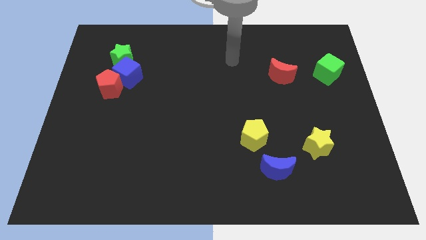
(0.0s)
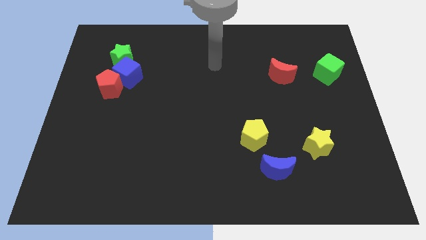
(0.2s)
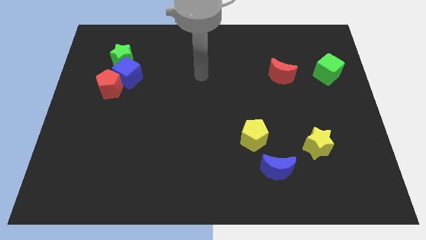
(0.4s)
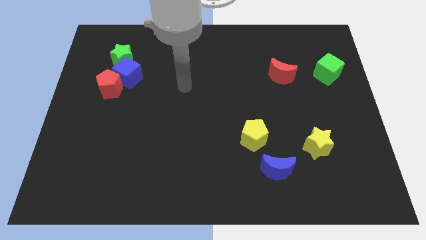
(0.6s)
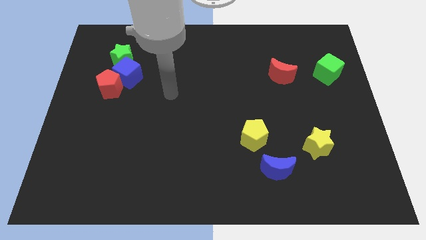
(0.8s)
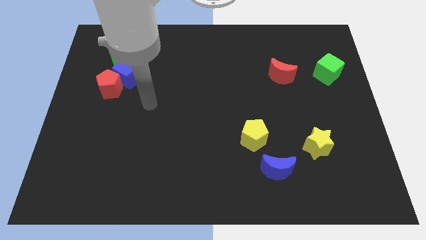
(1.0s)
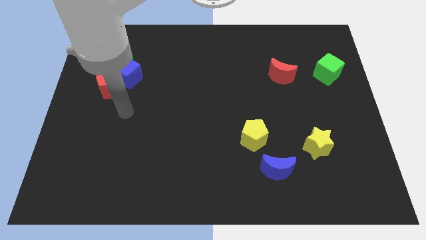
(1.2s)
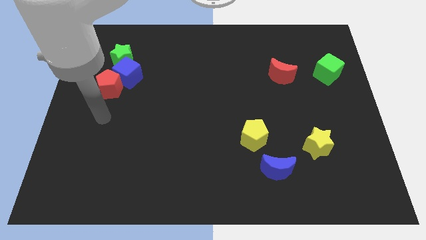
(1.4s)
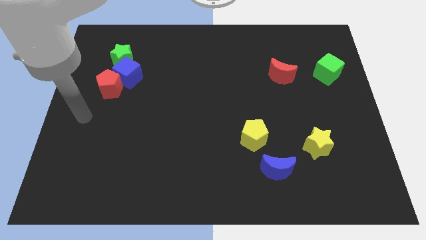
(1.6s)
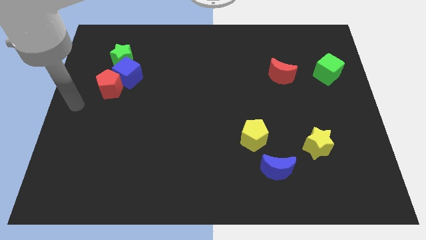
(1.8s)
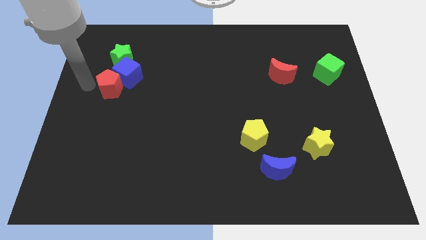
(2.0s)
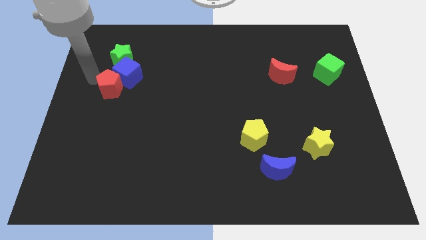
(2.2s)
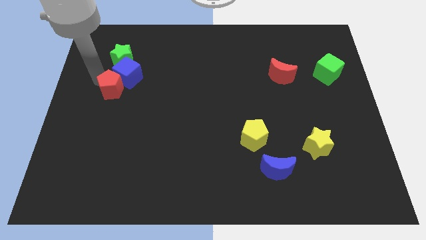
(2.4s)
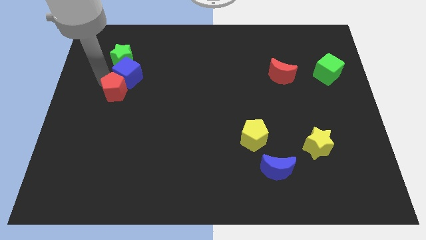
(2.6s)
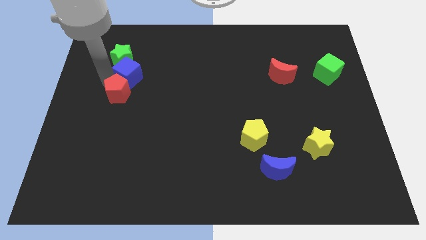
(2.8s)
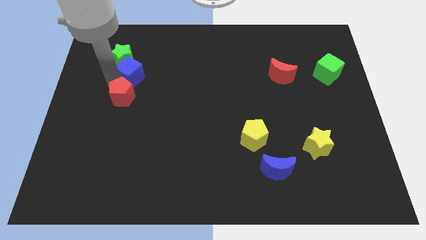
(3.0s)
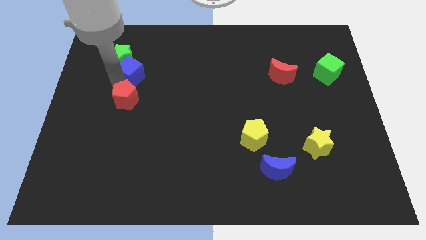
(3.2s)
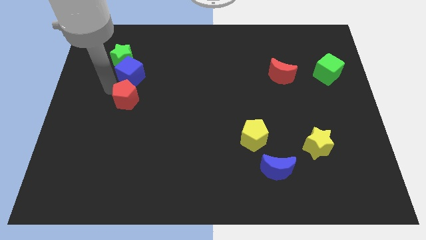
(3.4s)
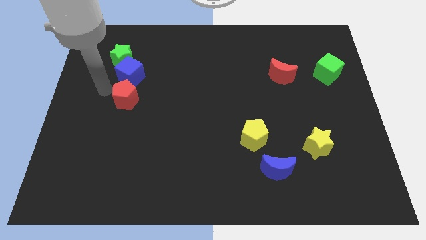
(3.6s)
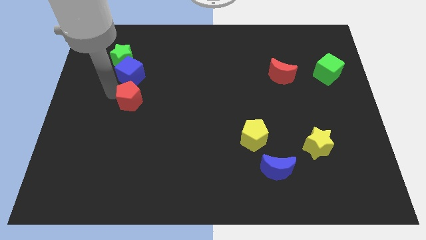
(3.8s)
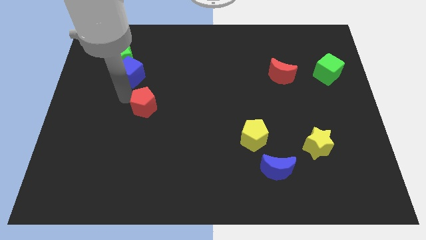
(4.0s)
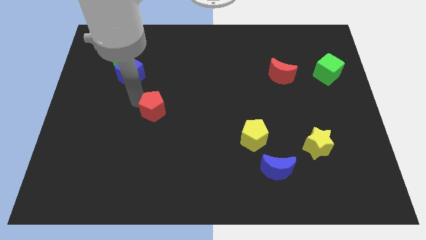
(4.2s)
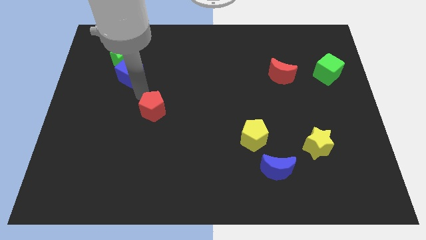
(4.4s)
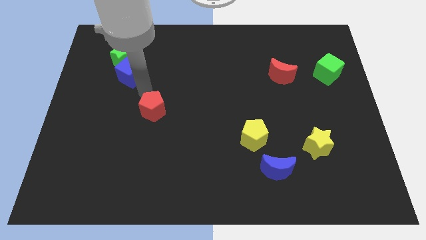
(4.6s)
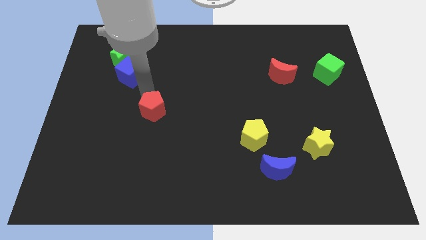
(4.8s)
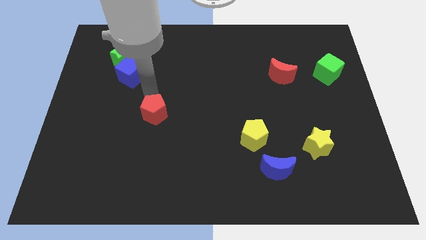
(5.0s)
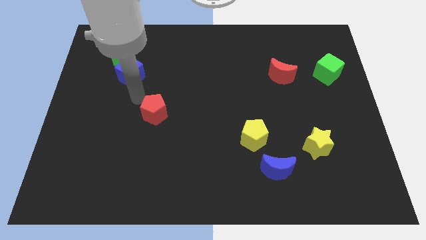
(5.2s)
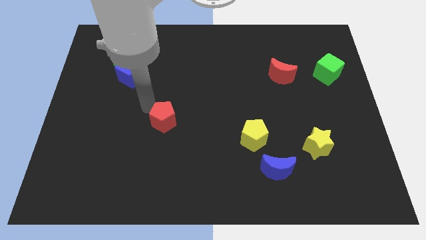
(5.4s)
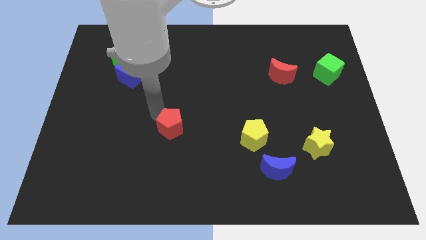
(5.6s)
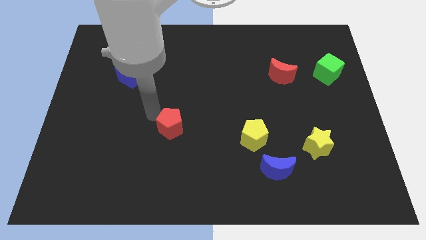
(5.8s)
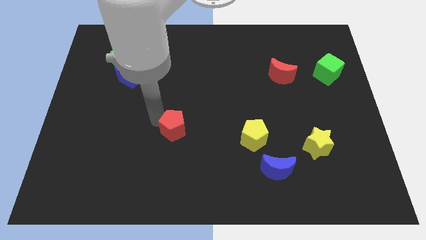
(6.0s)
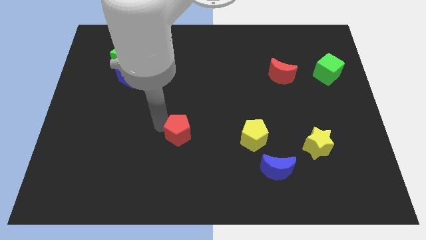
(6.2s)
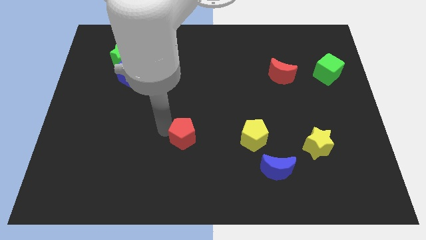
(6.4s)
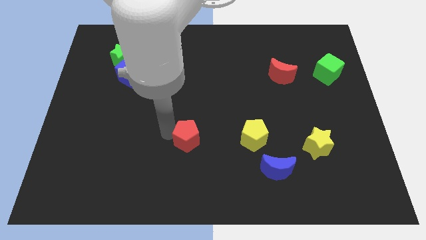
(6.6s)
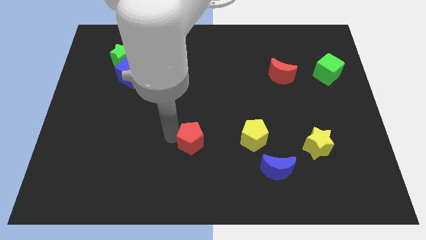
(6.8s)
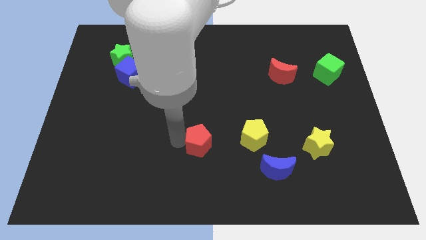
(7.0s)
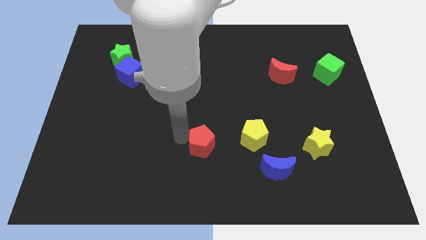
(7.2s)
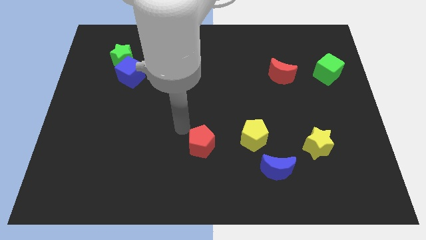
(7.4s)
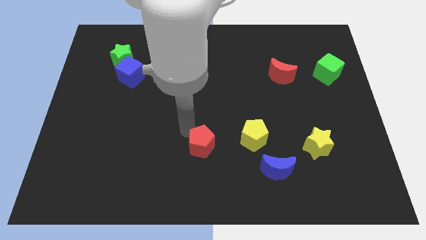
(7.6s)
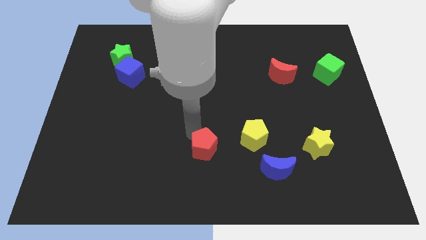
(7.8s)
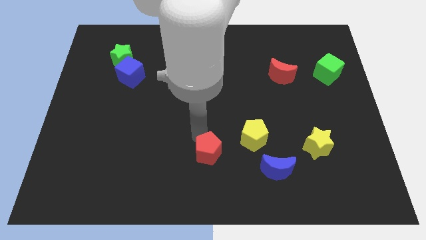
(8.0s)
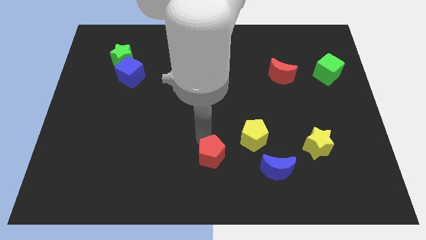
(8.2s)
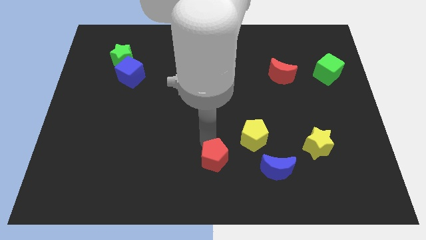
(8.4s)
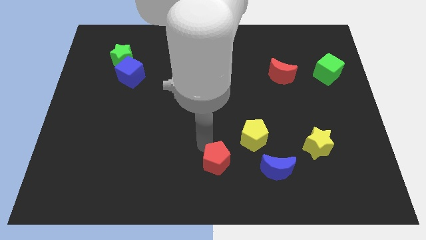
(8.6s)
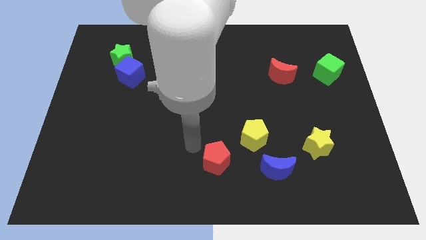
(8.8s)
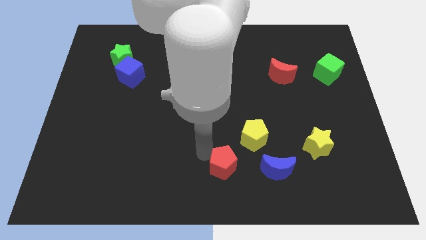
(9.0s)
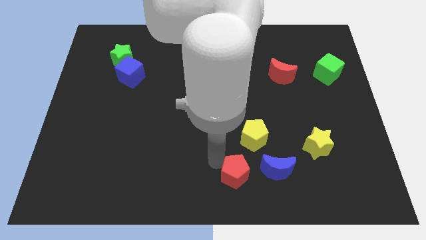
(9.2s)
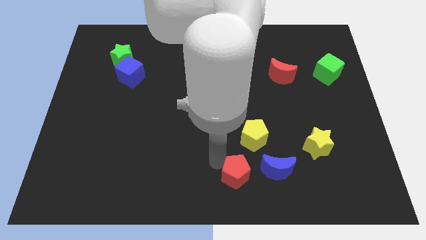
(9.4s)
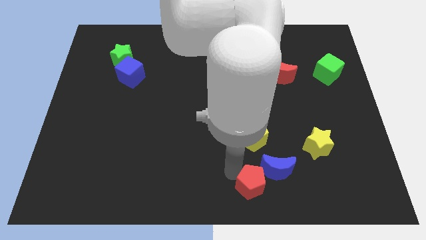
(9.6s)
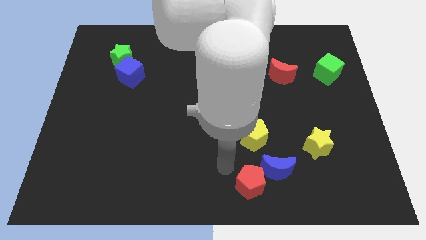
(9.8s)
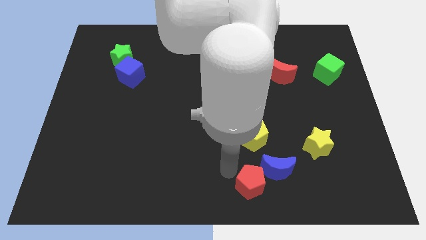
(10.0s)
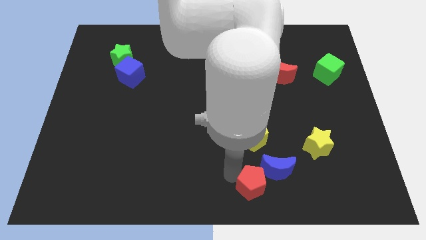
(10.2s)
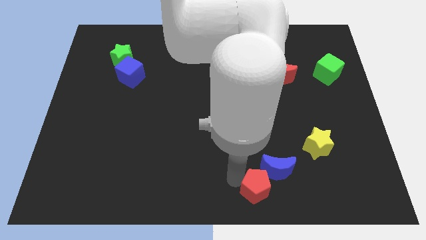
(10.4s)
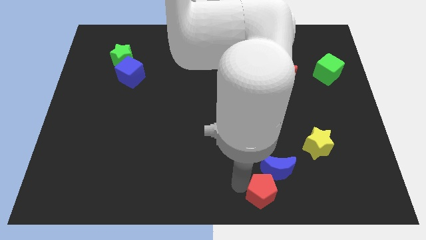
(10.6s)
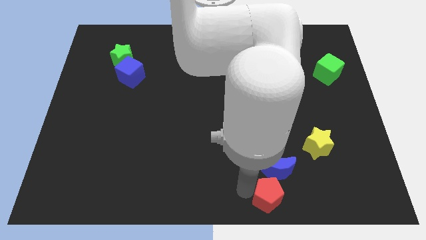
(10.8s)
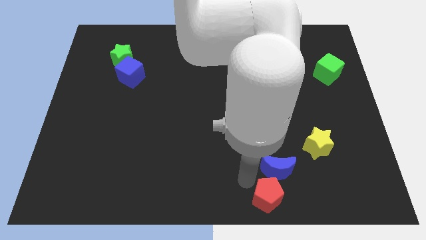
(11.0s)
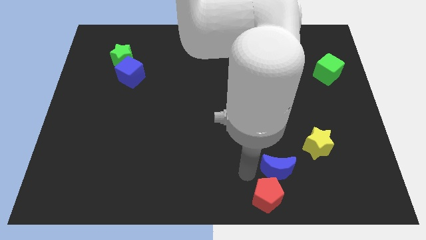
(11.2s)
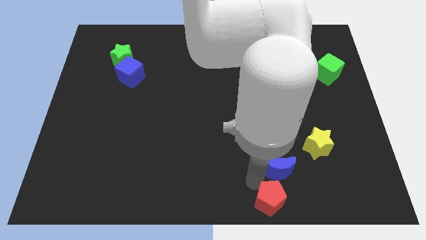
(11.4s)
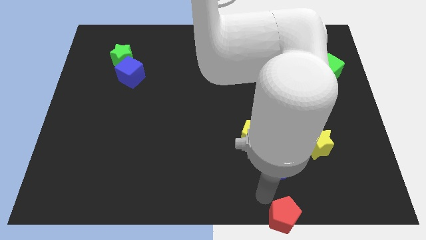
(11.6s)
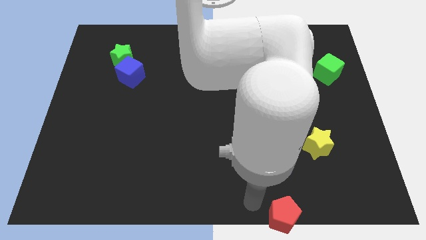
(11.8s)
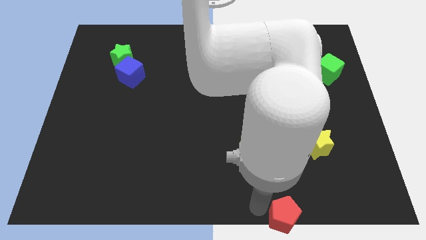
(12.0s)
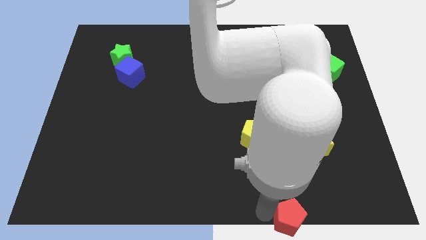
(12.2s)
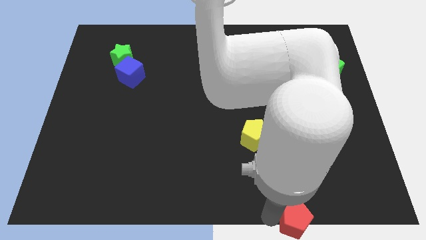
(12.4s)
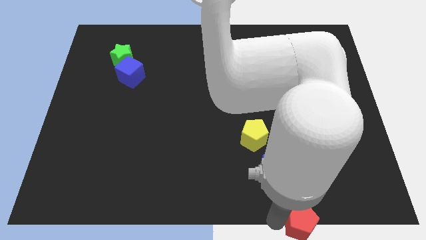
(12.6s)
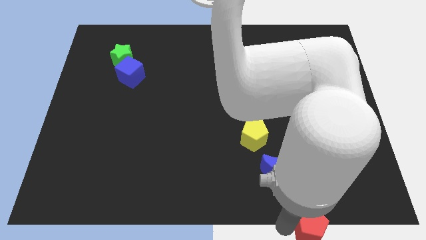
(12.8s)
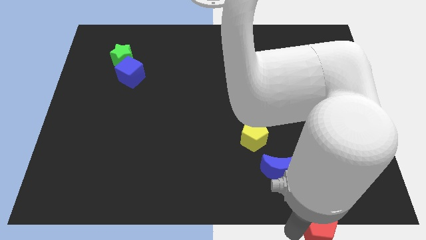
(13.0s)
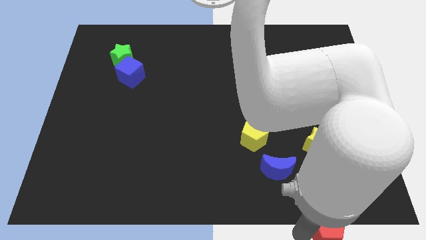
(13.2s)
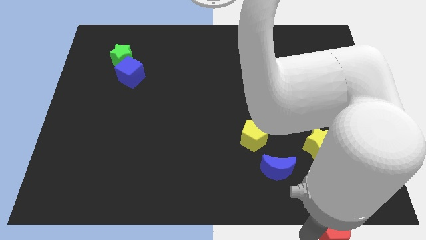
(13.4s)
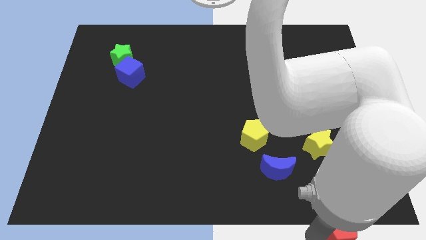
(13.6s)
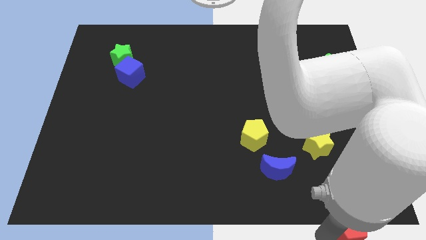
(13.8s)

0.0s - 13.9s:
put the red pentagon to the bottom right of the board
